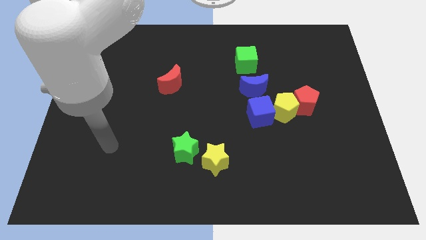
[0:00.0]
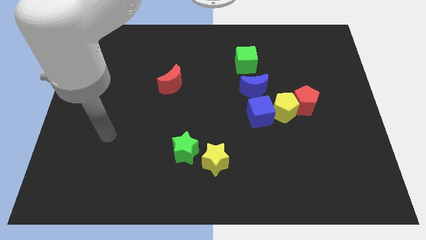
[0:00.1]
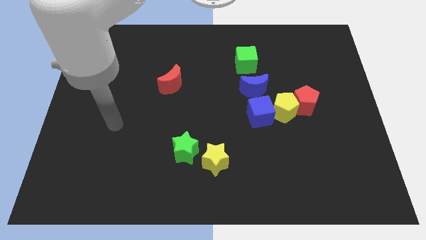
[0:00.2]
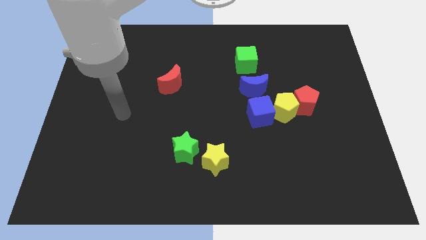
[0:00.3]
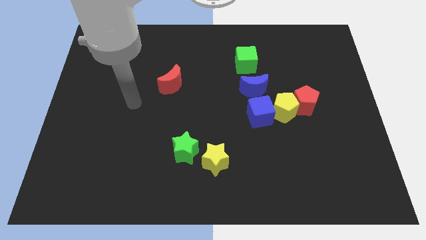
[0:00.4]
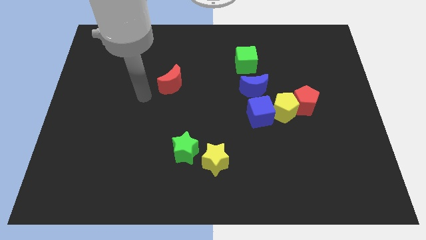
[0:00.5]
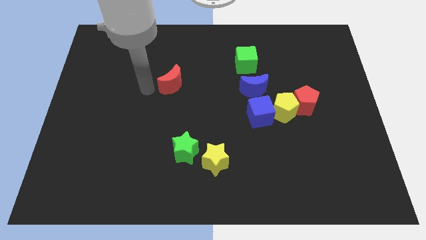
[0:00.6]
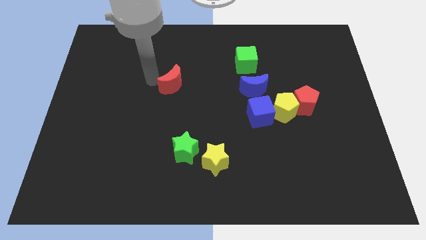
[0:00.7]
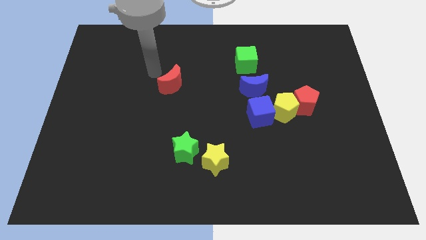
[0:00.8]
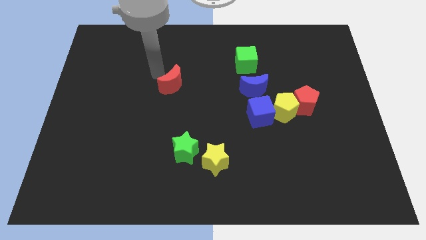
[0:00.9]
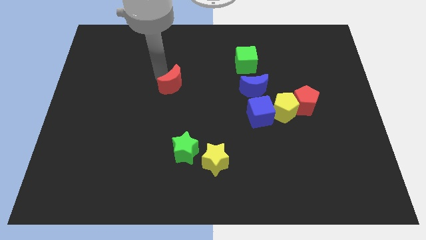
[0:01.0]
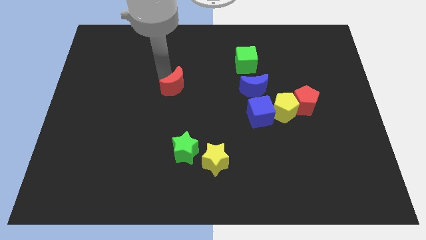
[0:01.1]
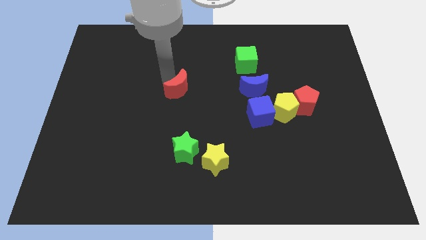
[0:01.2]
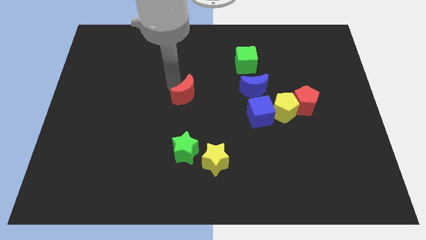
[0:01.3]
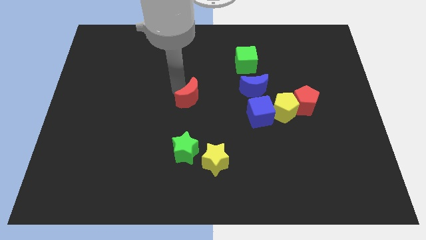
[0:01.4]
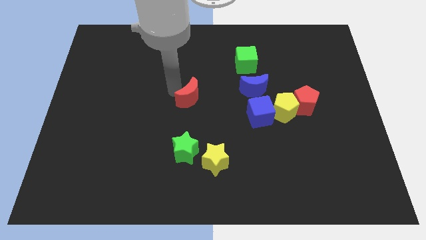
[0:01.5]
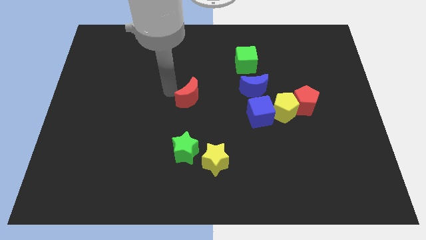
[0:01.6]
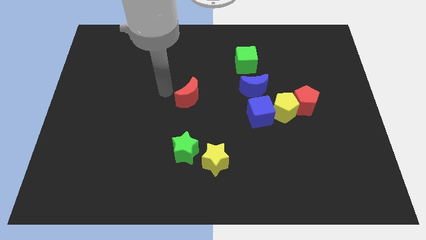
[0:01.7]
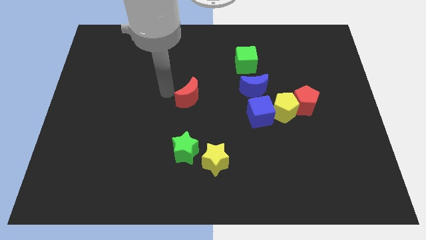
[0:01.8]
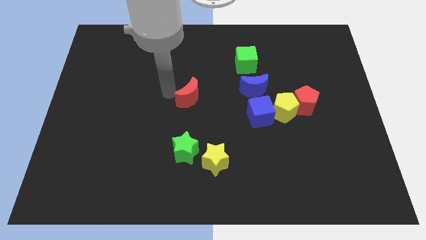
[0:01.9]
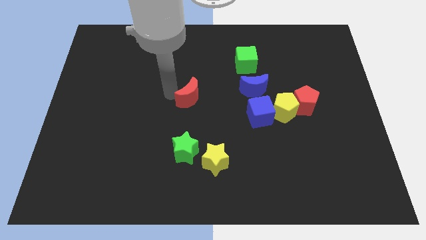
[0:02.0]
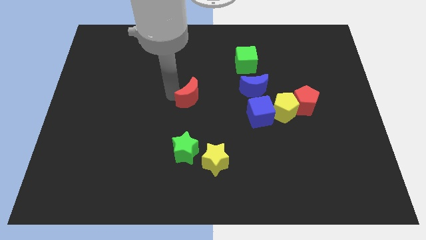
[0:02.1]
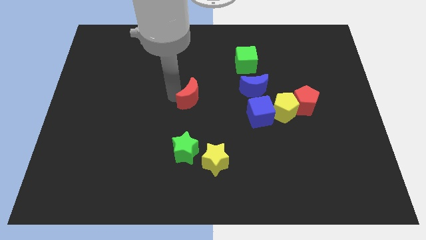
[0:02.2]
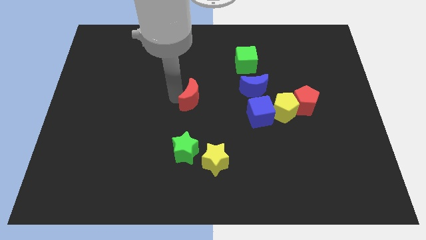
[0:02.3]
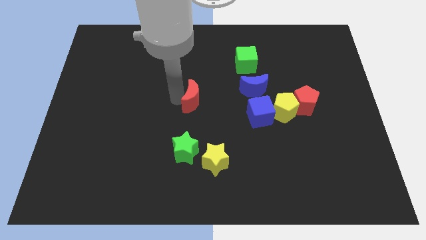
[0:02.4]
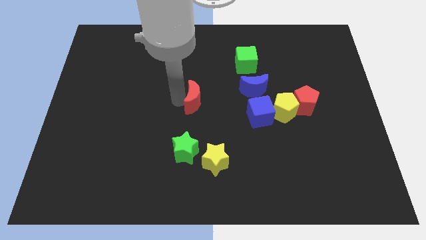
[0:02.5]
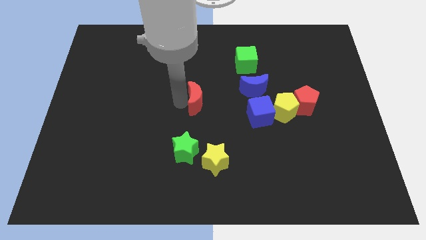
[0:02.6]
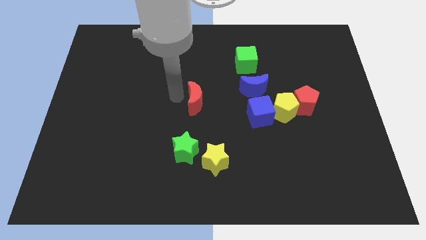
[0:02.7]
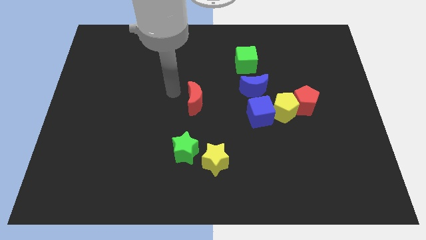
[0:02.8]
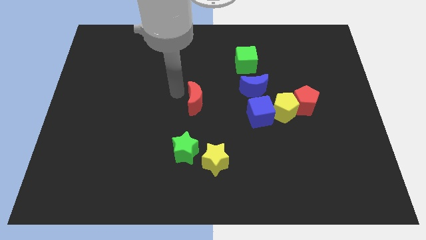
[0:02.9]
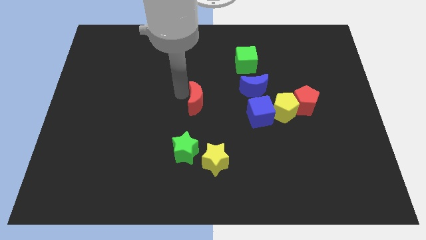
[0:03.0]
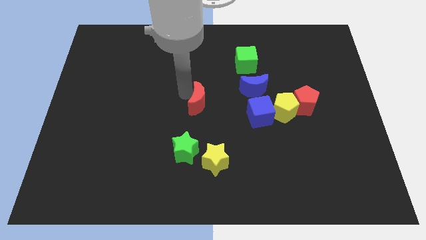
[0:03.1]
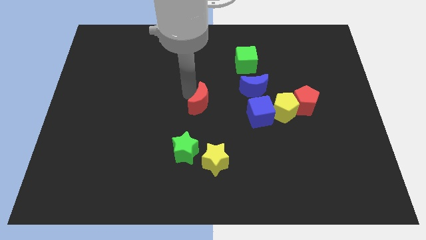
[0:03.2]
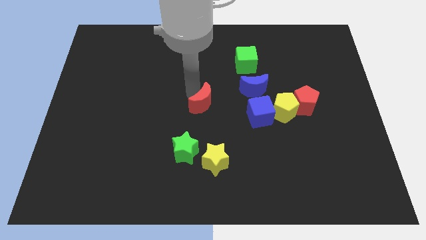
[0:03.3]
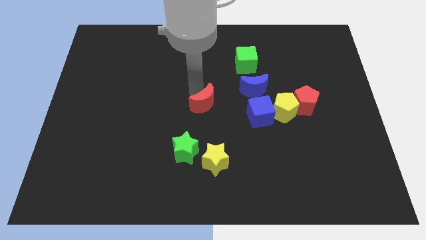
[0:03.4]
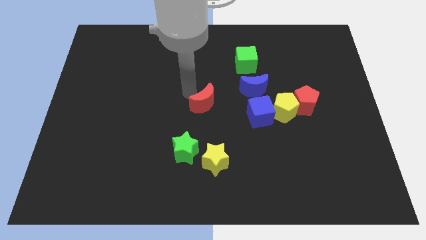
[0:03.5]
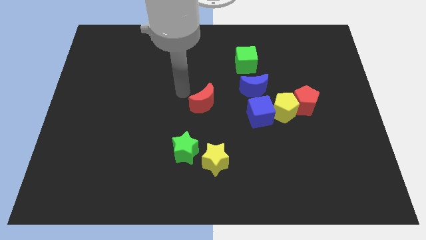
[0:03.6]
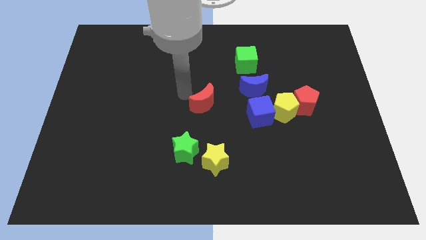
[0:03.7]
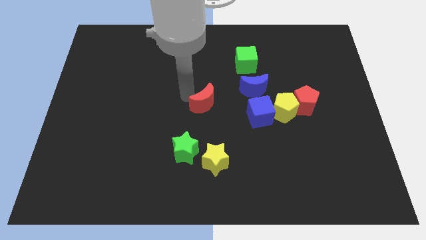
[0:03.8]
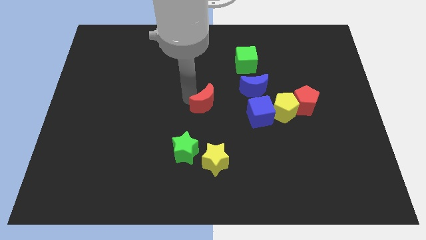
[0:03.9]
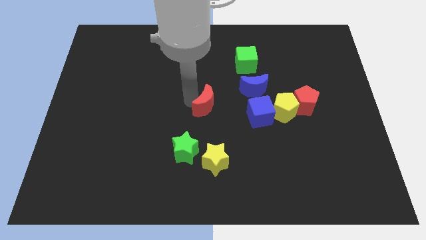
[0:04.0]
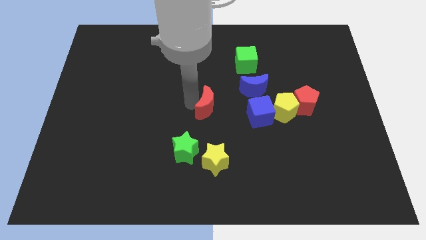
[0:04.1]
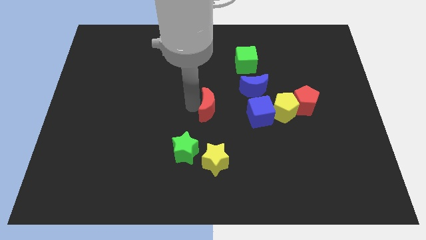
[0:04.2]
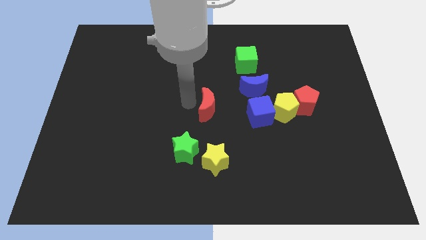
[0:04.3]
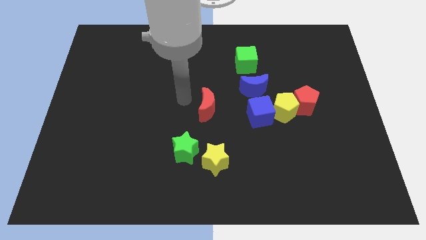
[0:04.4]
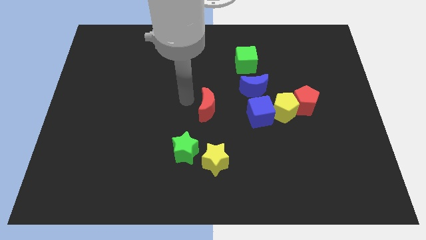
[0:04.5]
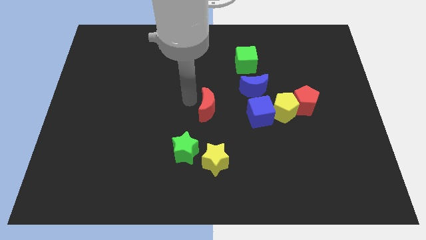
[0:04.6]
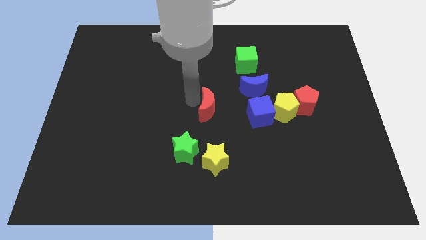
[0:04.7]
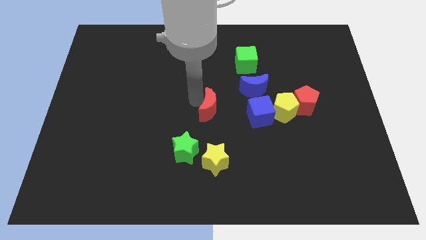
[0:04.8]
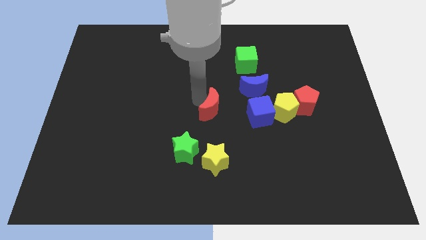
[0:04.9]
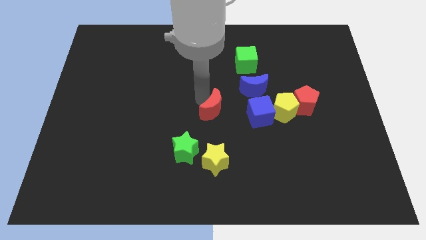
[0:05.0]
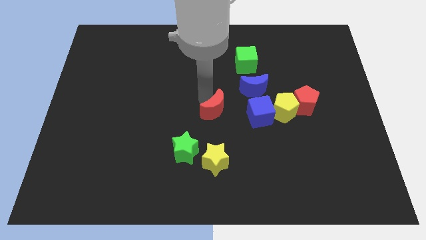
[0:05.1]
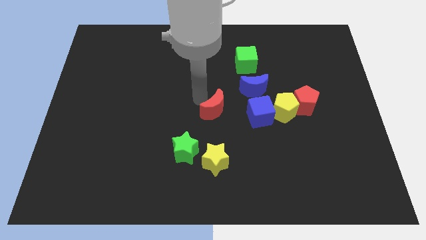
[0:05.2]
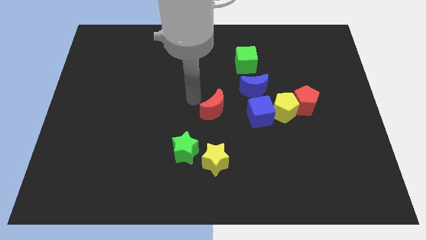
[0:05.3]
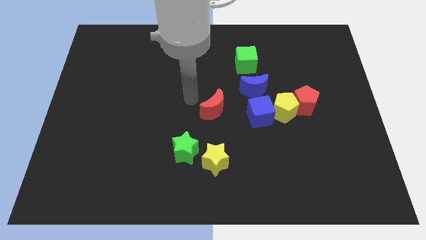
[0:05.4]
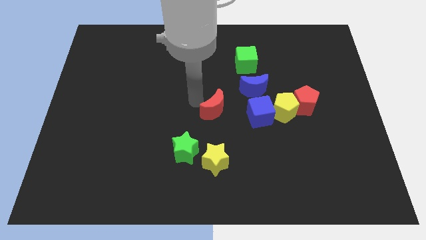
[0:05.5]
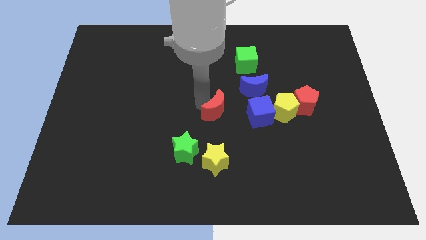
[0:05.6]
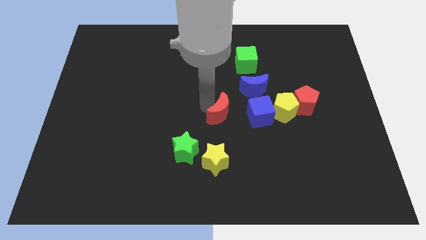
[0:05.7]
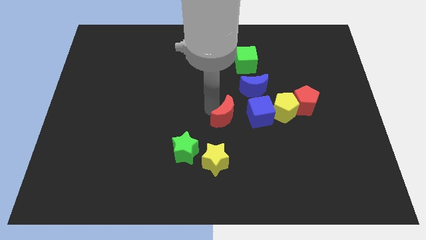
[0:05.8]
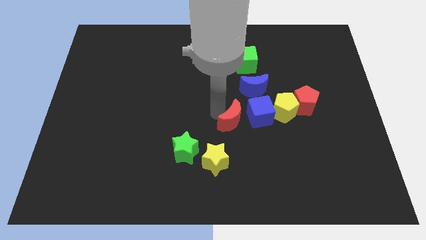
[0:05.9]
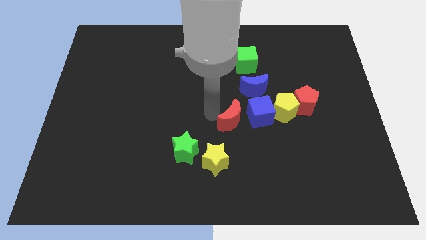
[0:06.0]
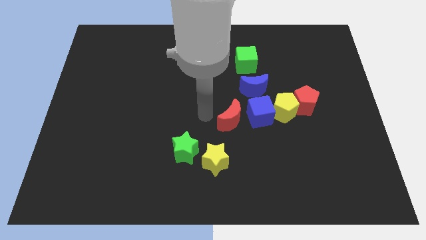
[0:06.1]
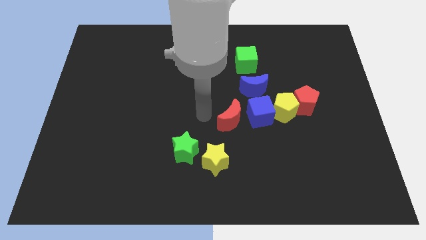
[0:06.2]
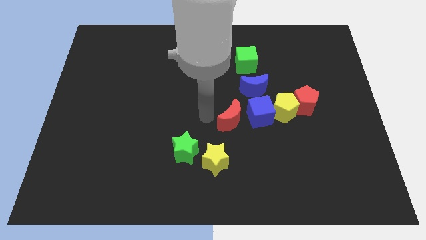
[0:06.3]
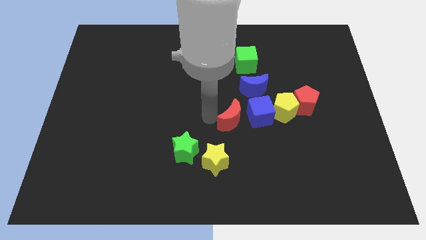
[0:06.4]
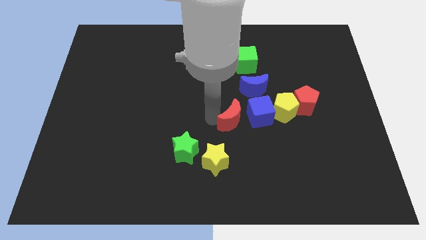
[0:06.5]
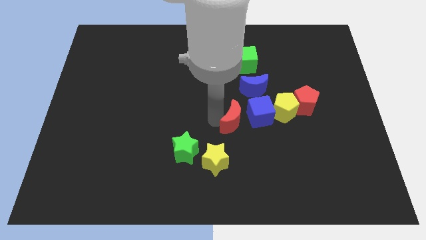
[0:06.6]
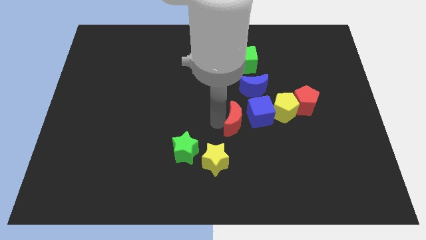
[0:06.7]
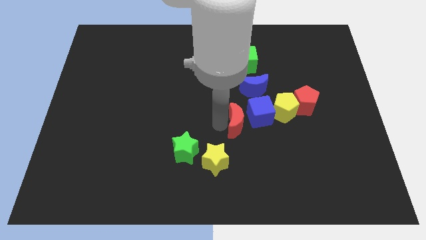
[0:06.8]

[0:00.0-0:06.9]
put the red moon below the blue moon

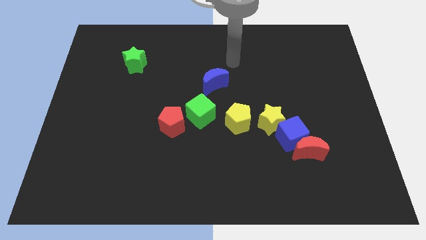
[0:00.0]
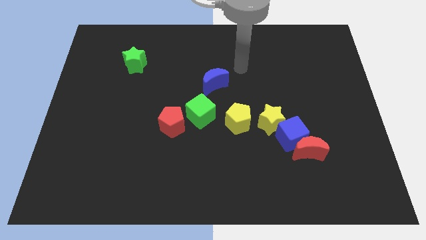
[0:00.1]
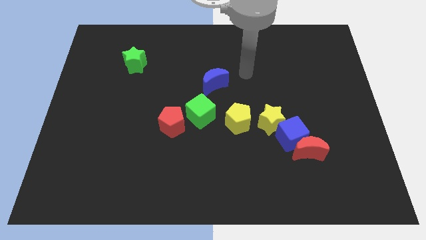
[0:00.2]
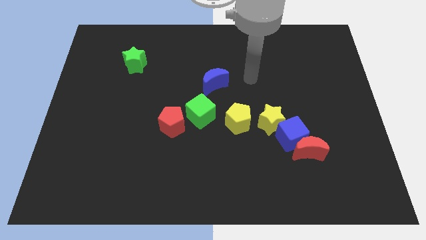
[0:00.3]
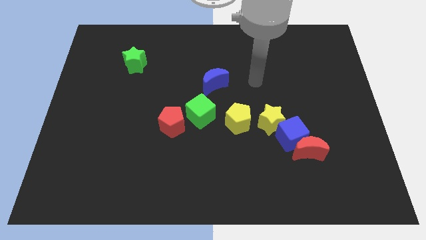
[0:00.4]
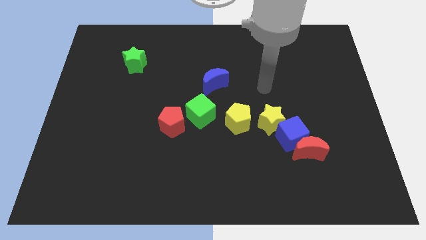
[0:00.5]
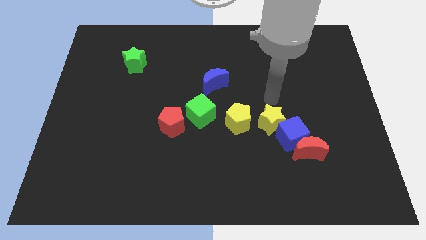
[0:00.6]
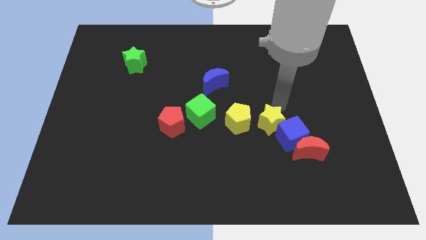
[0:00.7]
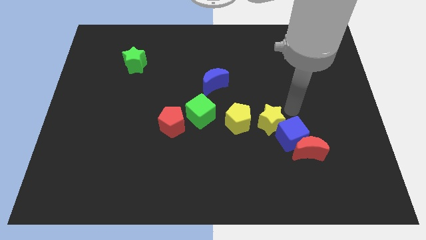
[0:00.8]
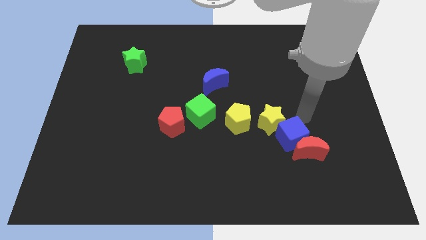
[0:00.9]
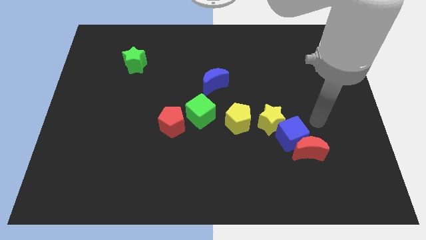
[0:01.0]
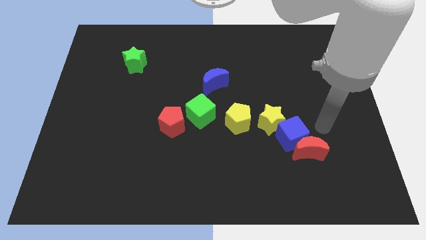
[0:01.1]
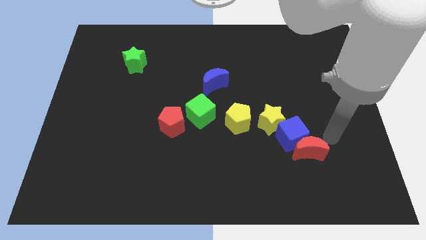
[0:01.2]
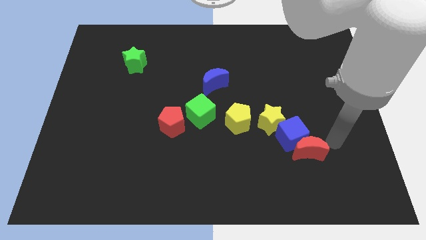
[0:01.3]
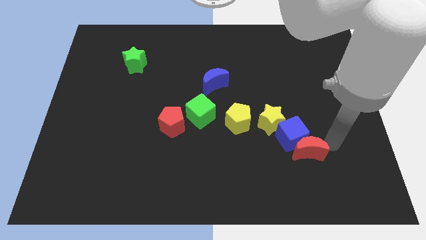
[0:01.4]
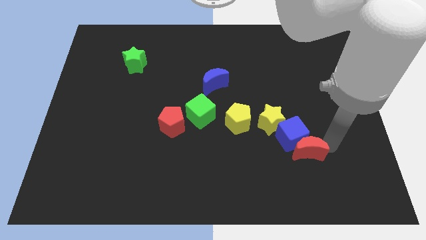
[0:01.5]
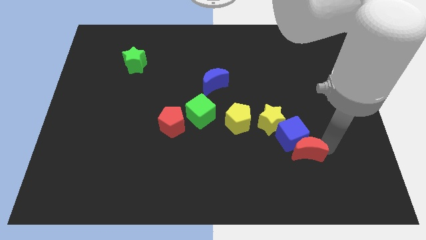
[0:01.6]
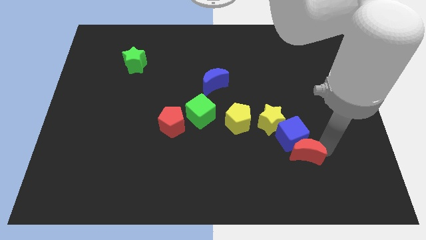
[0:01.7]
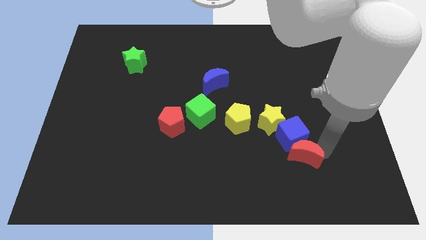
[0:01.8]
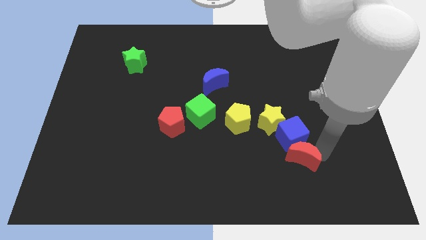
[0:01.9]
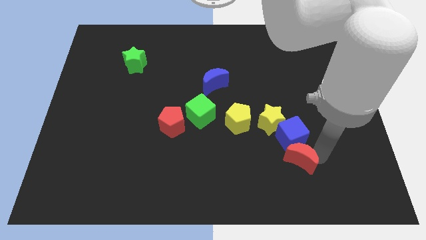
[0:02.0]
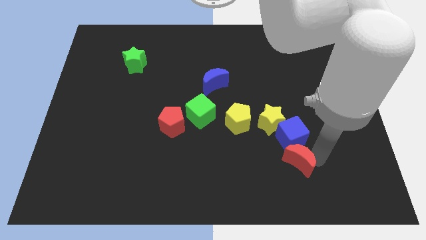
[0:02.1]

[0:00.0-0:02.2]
put the red moon to the bottom side of the yellow star
